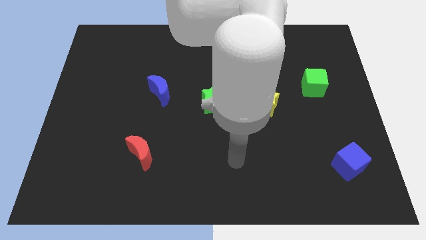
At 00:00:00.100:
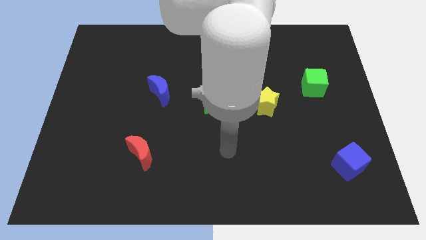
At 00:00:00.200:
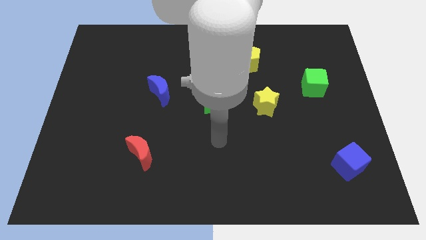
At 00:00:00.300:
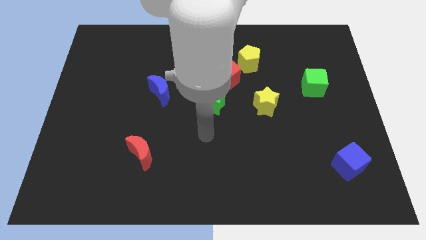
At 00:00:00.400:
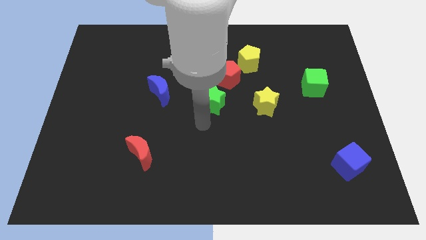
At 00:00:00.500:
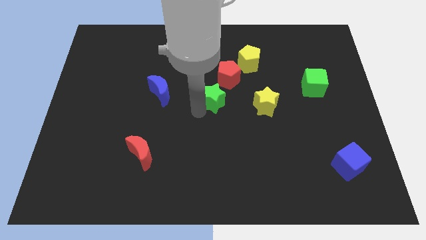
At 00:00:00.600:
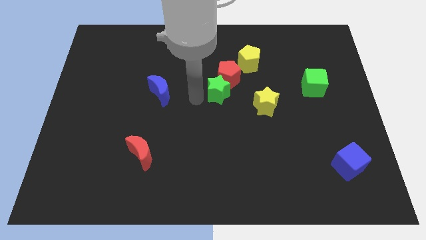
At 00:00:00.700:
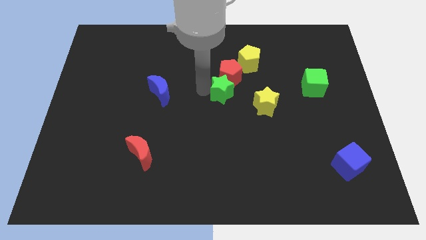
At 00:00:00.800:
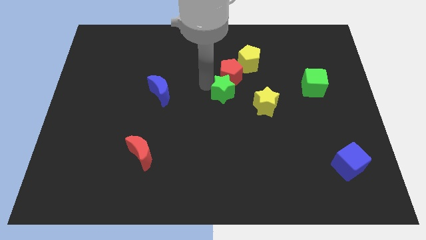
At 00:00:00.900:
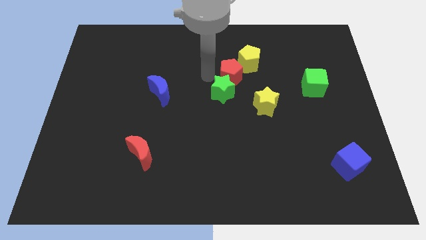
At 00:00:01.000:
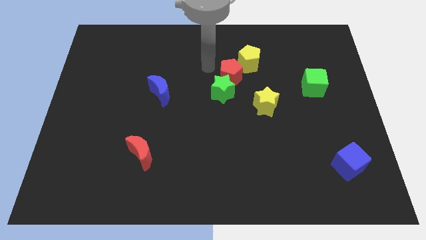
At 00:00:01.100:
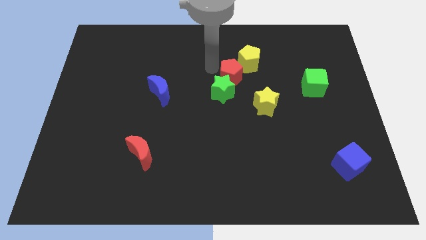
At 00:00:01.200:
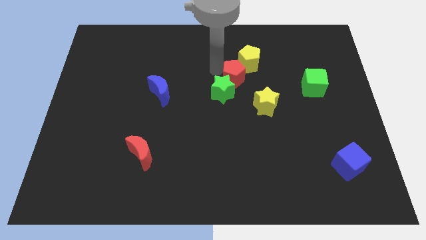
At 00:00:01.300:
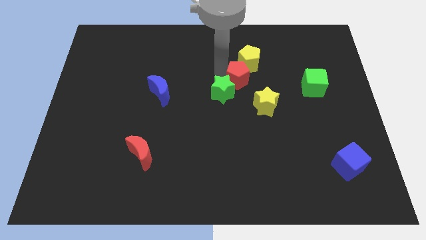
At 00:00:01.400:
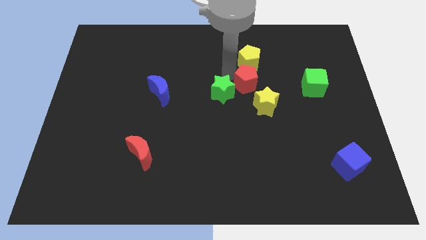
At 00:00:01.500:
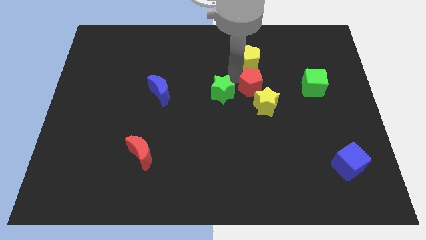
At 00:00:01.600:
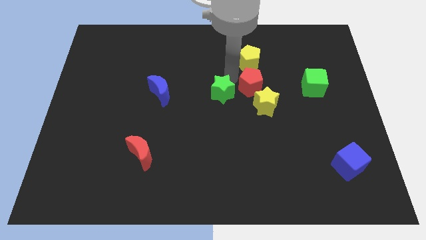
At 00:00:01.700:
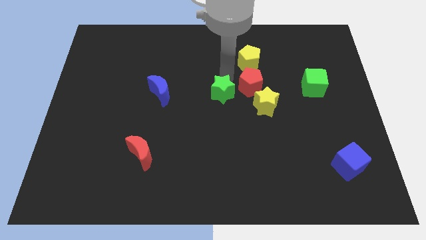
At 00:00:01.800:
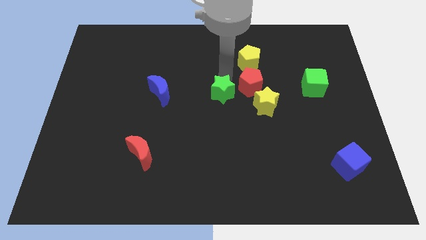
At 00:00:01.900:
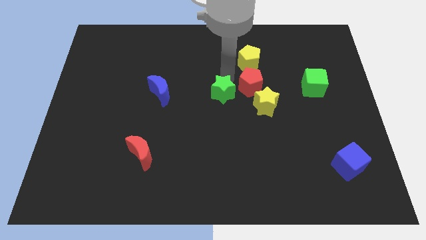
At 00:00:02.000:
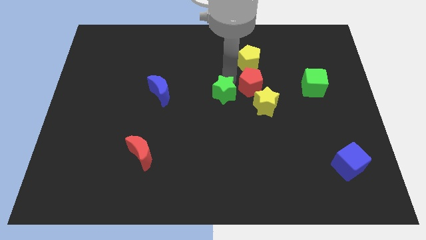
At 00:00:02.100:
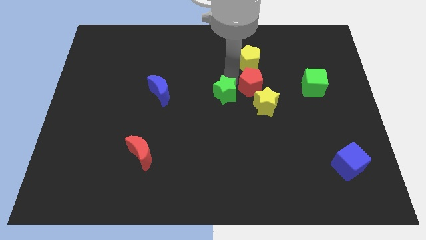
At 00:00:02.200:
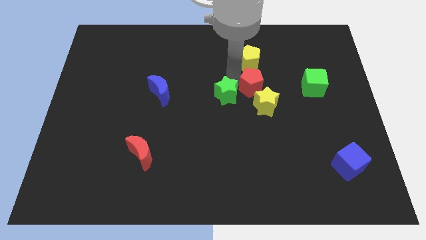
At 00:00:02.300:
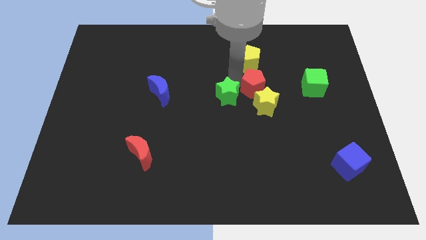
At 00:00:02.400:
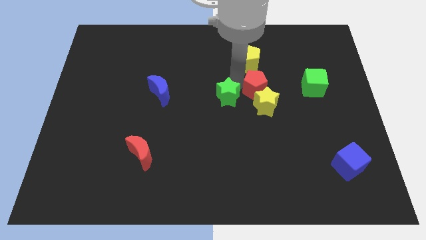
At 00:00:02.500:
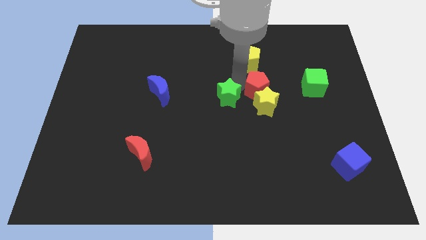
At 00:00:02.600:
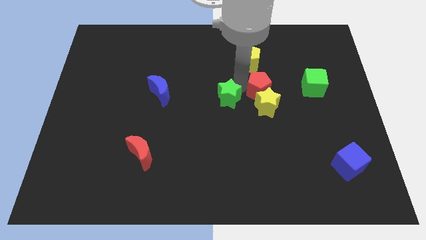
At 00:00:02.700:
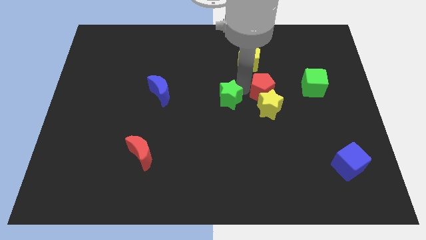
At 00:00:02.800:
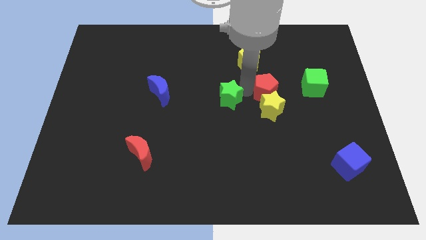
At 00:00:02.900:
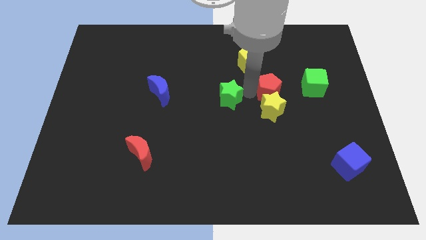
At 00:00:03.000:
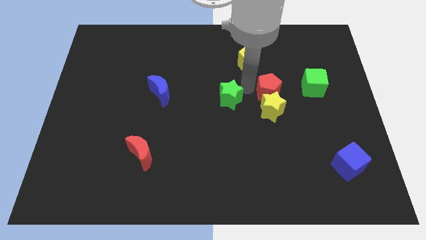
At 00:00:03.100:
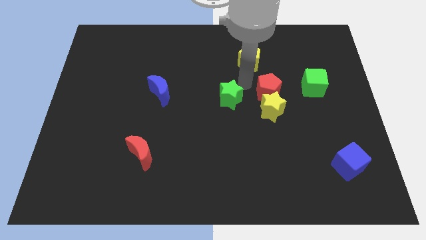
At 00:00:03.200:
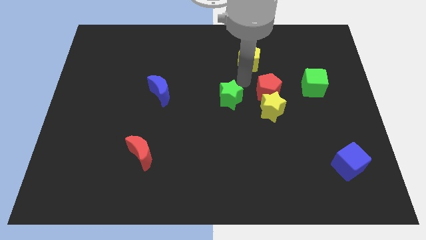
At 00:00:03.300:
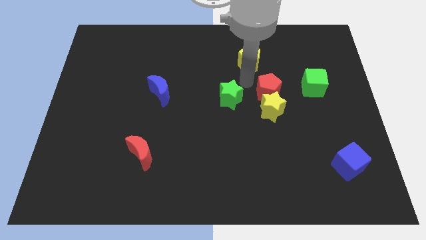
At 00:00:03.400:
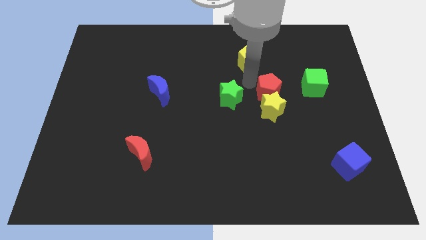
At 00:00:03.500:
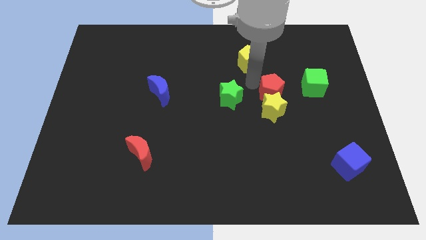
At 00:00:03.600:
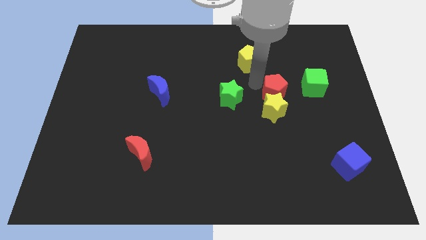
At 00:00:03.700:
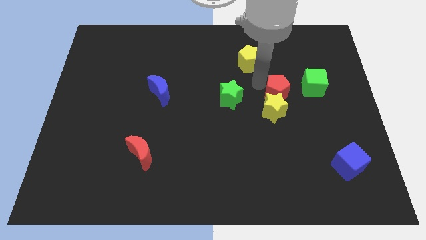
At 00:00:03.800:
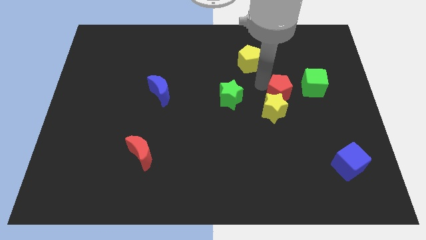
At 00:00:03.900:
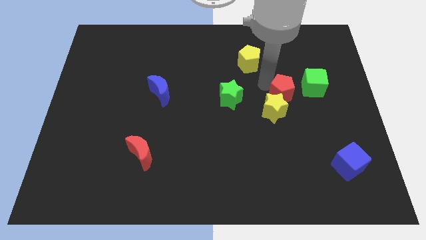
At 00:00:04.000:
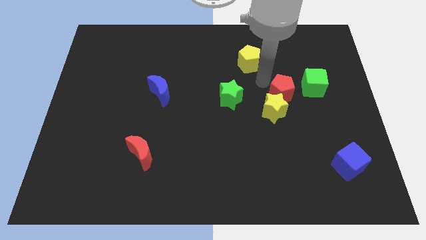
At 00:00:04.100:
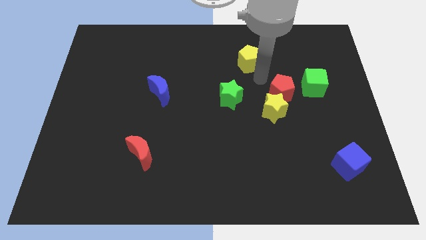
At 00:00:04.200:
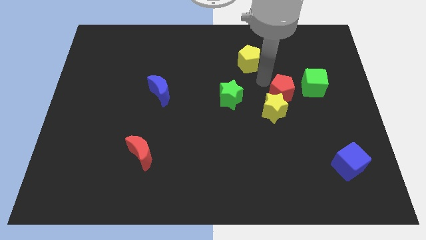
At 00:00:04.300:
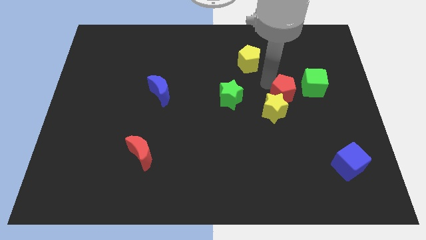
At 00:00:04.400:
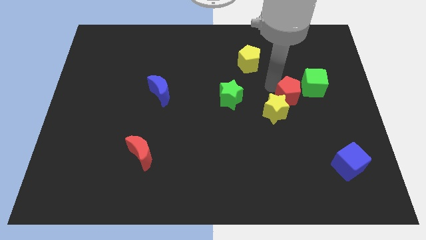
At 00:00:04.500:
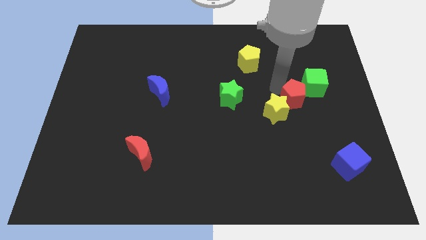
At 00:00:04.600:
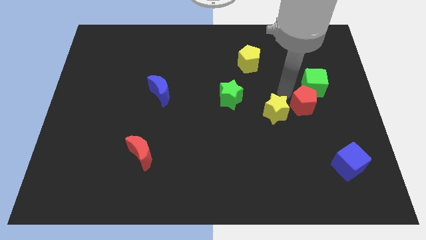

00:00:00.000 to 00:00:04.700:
put the red pentagon below the green cube

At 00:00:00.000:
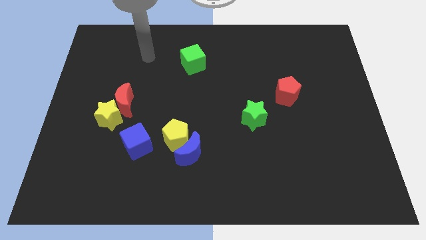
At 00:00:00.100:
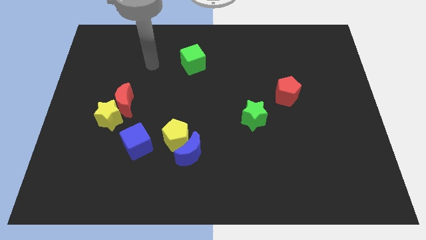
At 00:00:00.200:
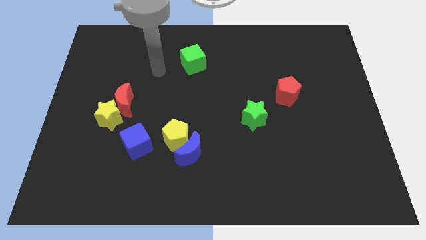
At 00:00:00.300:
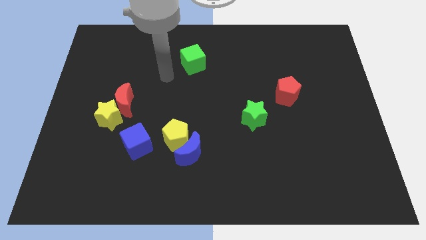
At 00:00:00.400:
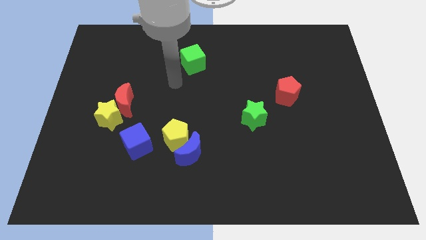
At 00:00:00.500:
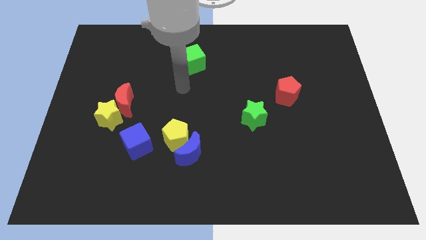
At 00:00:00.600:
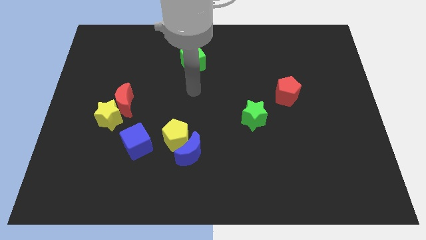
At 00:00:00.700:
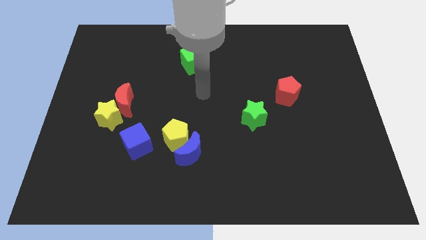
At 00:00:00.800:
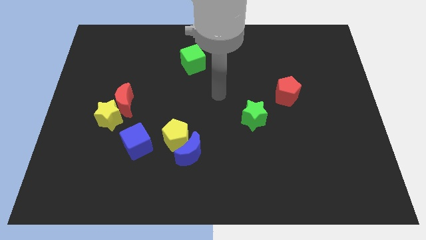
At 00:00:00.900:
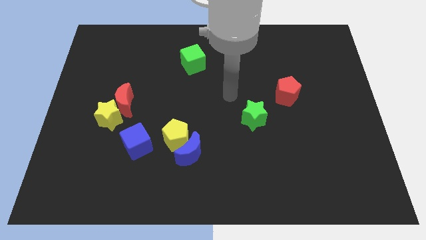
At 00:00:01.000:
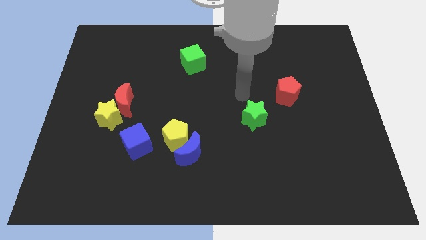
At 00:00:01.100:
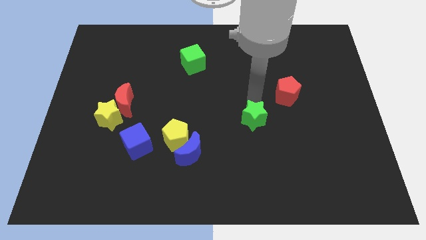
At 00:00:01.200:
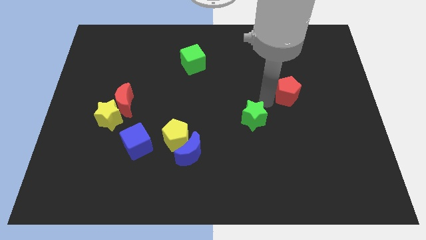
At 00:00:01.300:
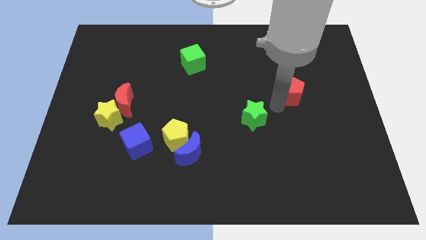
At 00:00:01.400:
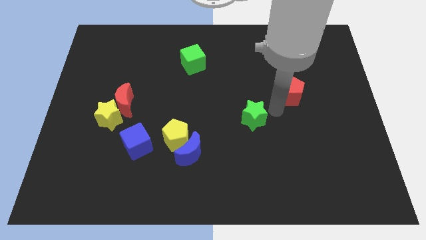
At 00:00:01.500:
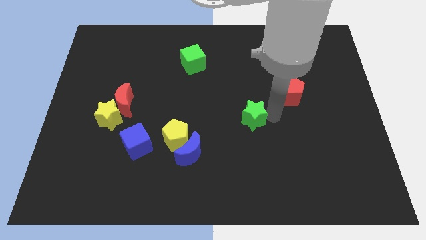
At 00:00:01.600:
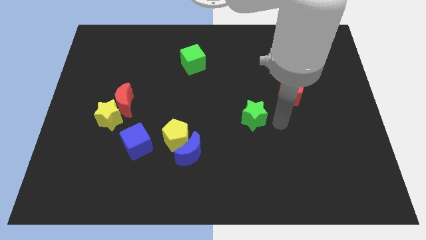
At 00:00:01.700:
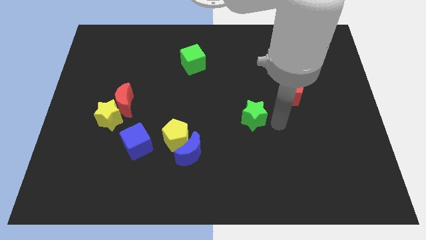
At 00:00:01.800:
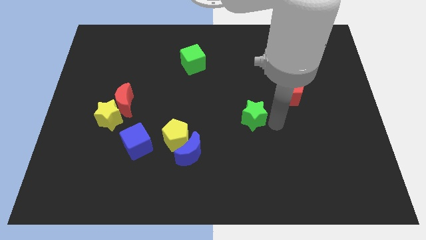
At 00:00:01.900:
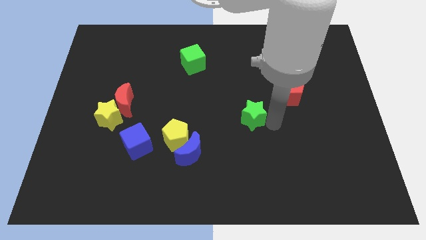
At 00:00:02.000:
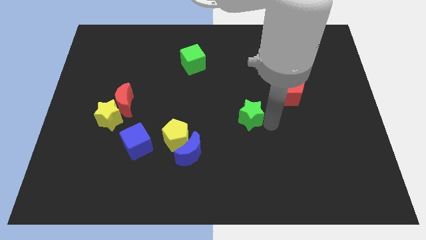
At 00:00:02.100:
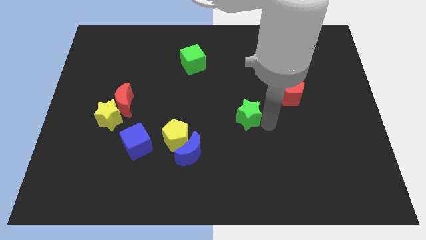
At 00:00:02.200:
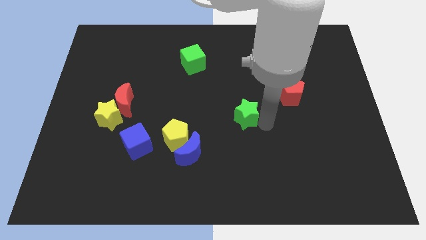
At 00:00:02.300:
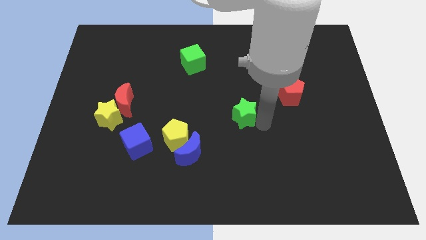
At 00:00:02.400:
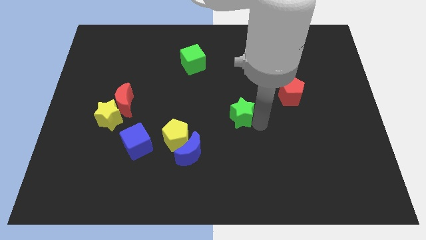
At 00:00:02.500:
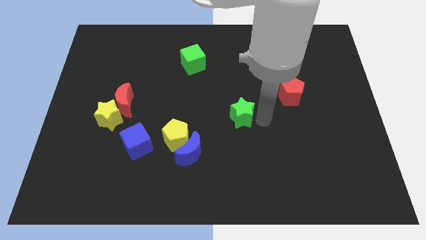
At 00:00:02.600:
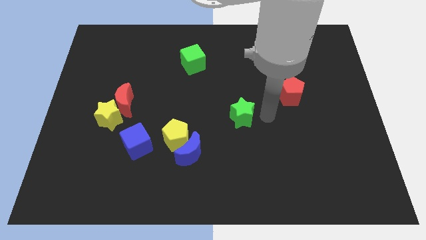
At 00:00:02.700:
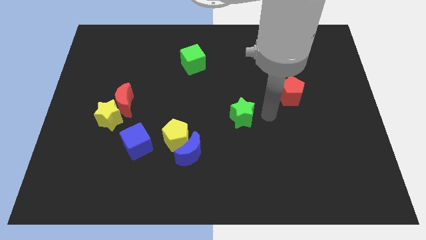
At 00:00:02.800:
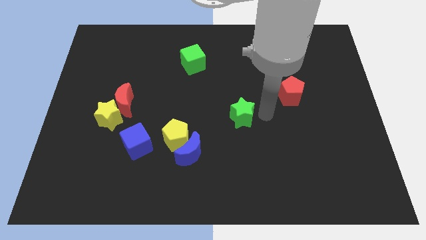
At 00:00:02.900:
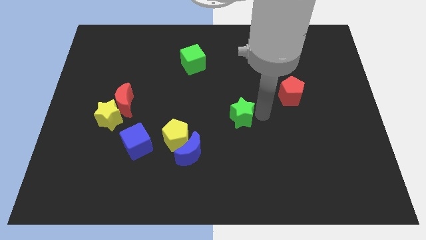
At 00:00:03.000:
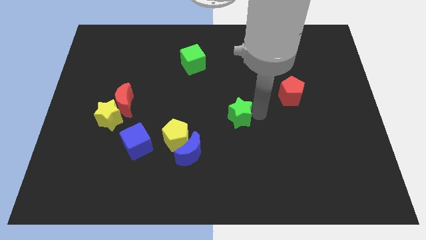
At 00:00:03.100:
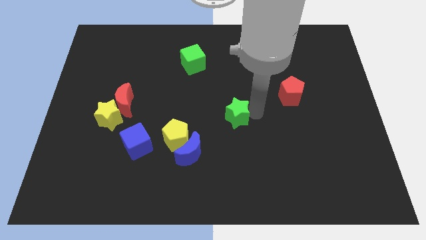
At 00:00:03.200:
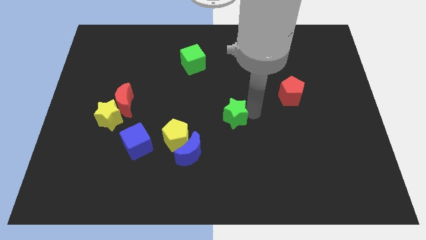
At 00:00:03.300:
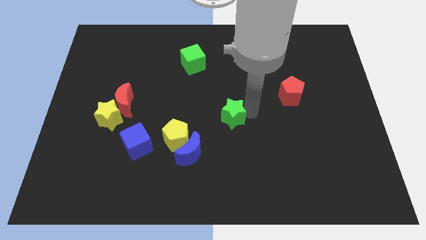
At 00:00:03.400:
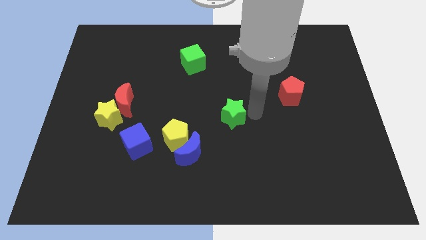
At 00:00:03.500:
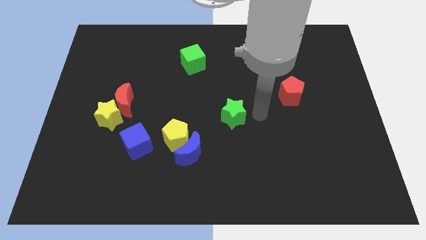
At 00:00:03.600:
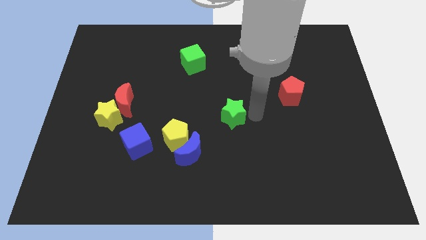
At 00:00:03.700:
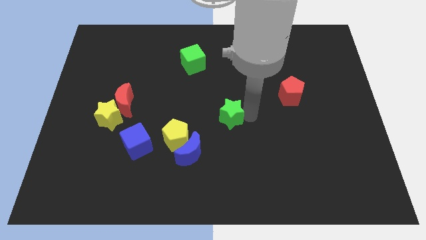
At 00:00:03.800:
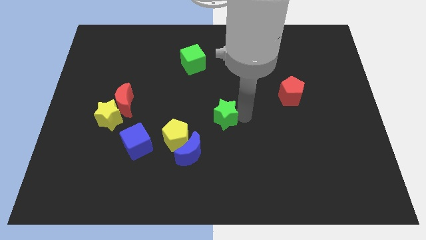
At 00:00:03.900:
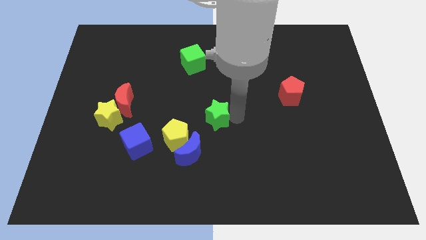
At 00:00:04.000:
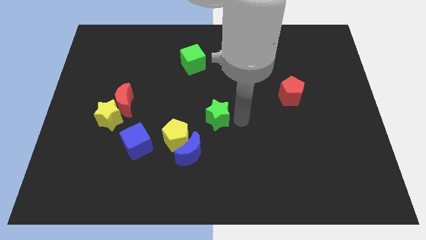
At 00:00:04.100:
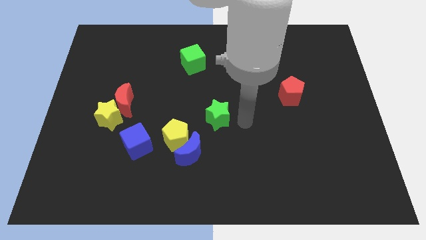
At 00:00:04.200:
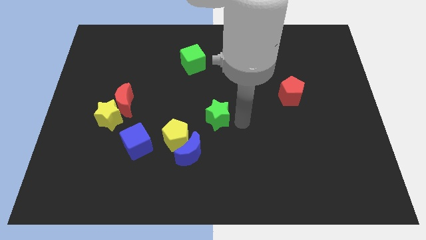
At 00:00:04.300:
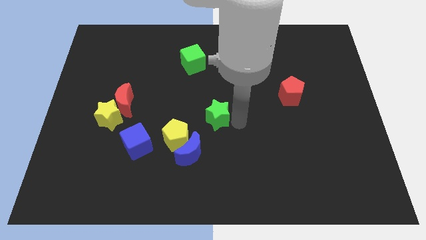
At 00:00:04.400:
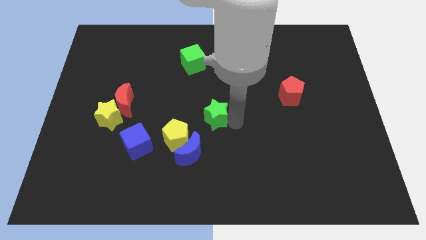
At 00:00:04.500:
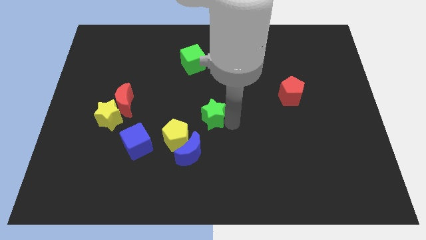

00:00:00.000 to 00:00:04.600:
put the green star above the blue moon
